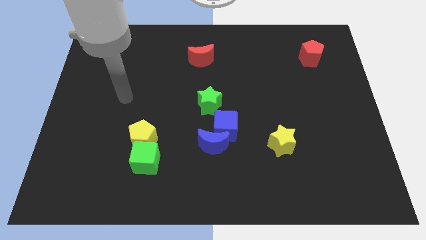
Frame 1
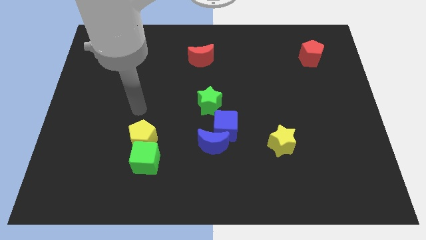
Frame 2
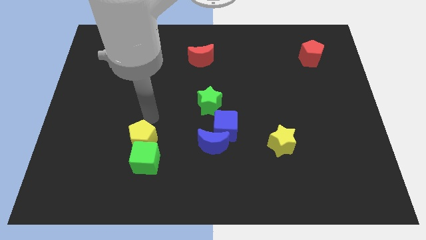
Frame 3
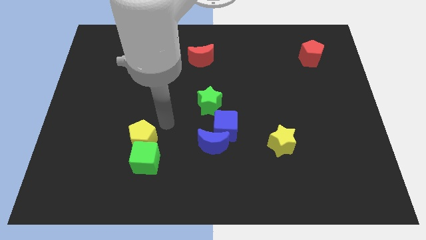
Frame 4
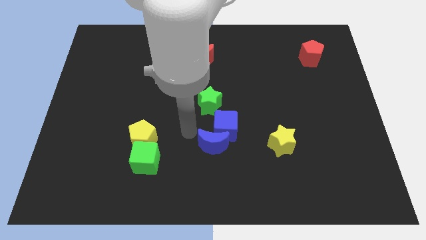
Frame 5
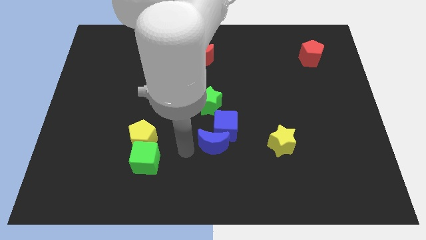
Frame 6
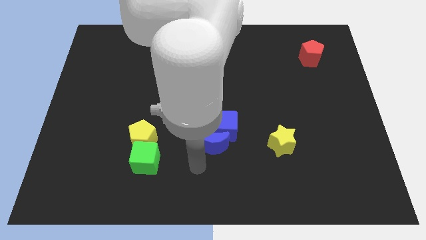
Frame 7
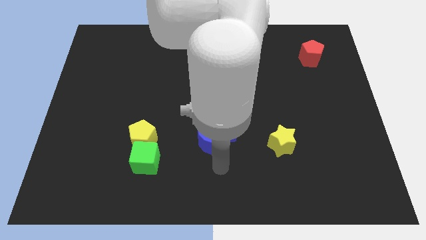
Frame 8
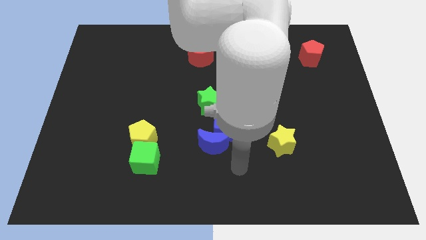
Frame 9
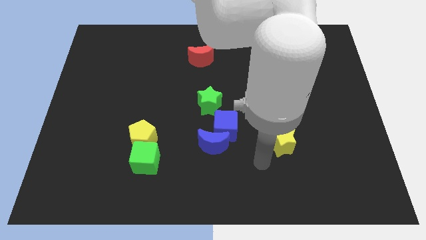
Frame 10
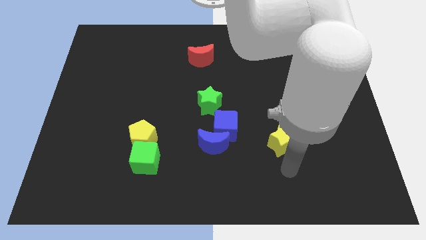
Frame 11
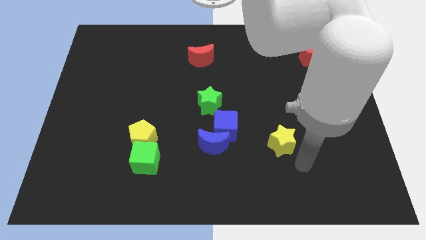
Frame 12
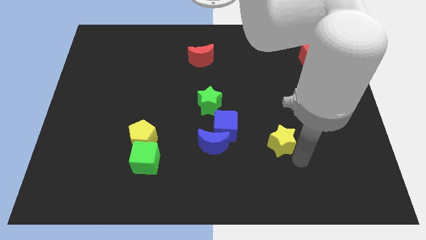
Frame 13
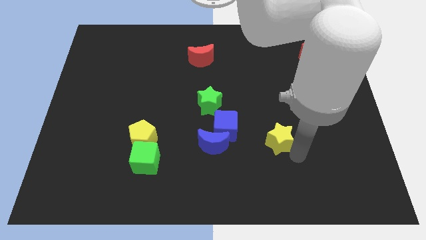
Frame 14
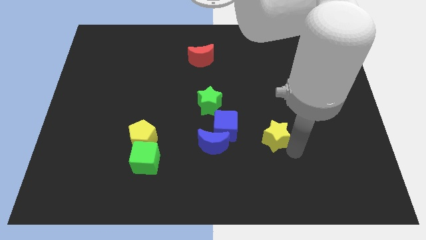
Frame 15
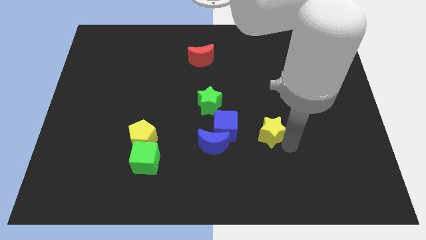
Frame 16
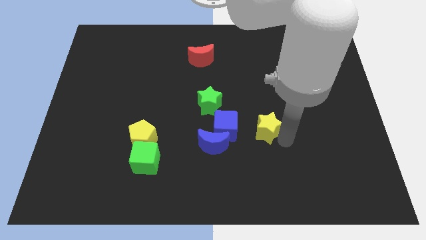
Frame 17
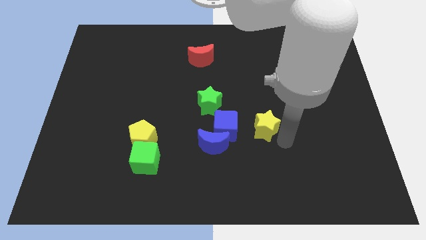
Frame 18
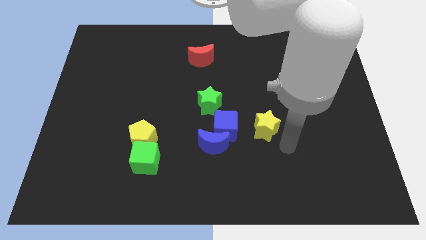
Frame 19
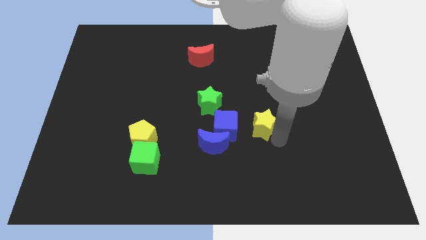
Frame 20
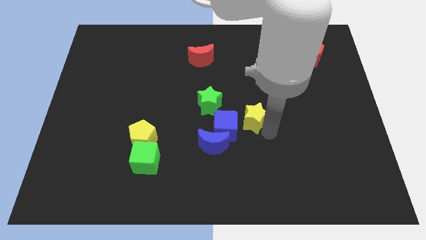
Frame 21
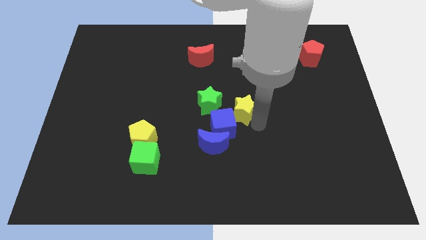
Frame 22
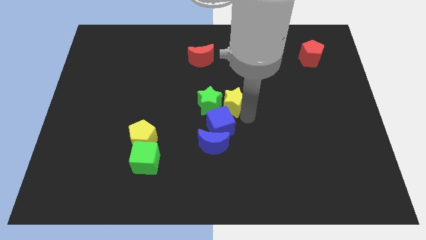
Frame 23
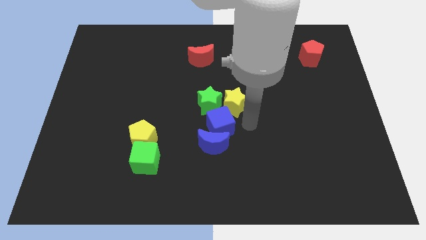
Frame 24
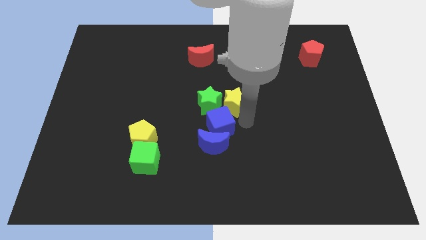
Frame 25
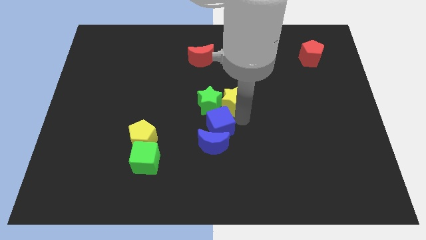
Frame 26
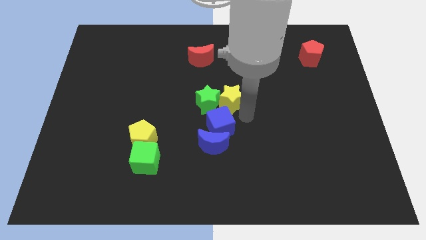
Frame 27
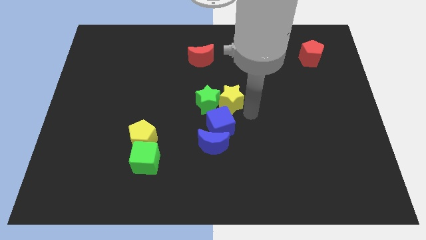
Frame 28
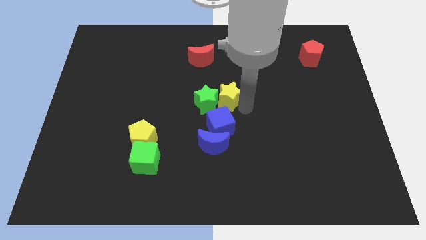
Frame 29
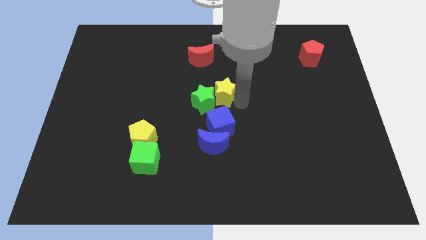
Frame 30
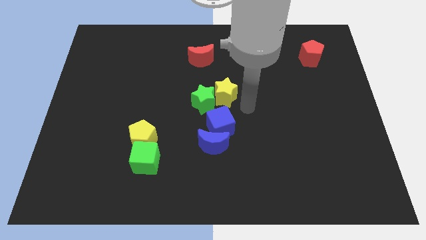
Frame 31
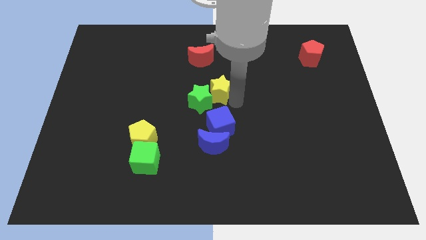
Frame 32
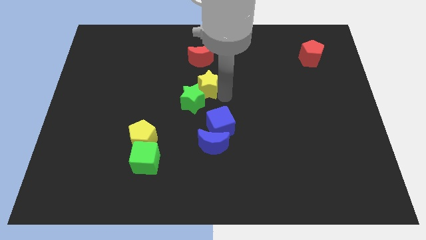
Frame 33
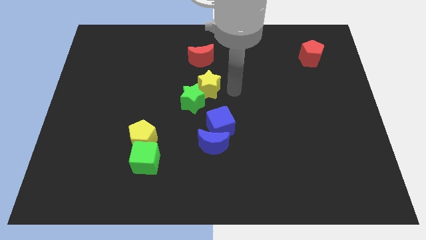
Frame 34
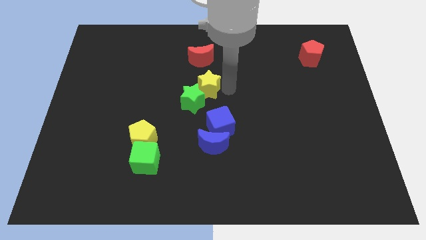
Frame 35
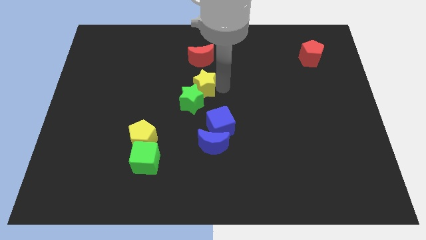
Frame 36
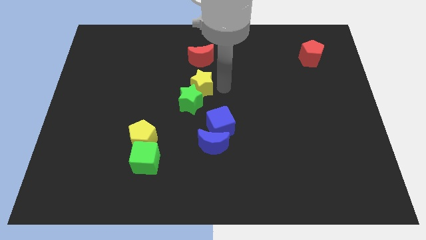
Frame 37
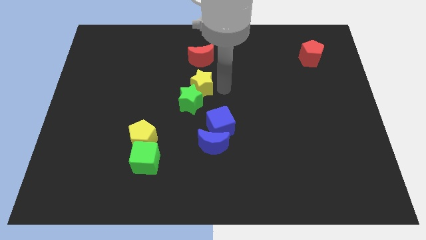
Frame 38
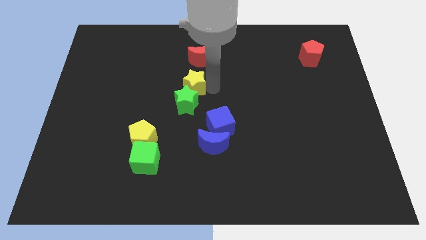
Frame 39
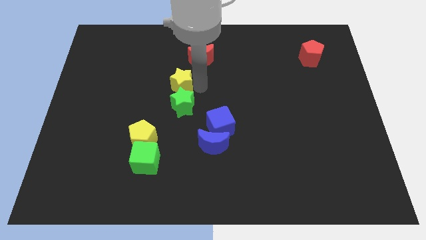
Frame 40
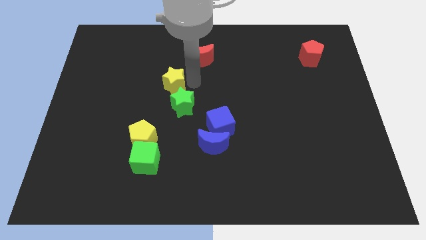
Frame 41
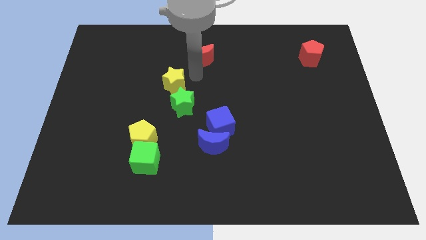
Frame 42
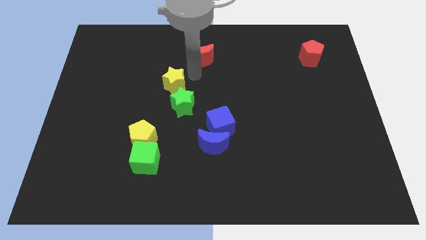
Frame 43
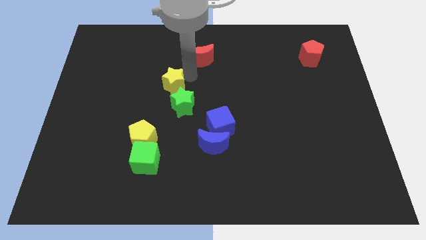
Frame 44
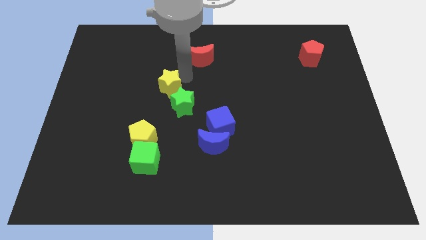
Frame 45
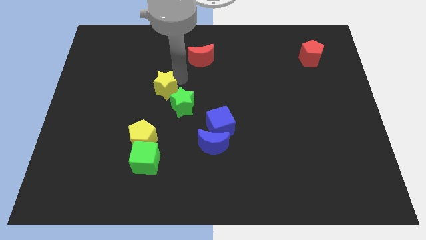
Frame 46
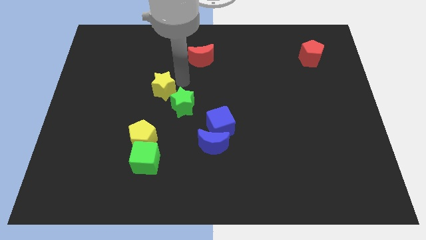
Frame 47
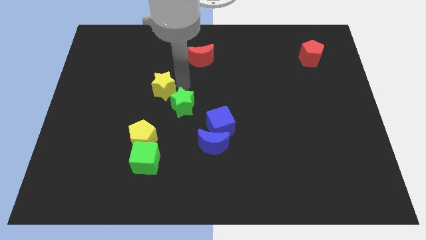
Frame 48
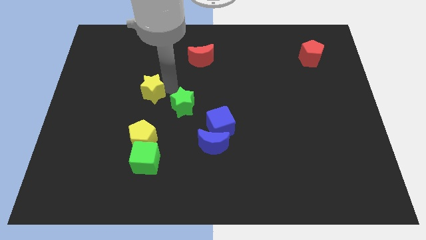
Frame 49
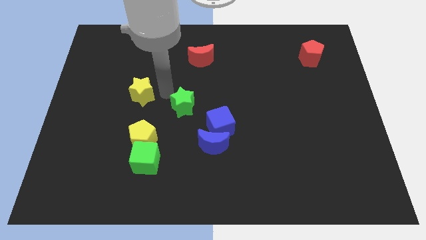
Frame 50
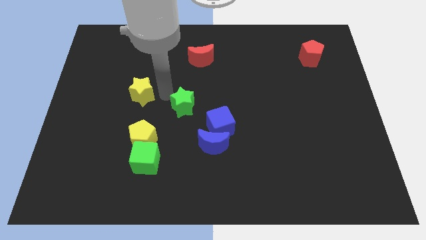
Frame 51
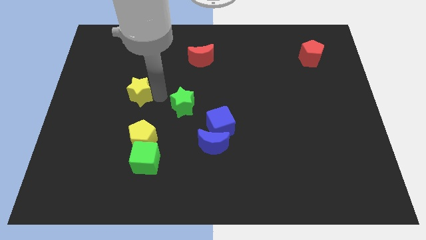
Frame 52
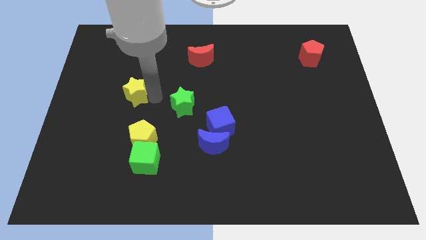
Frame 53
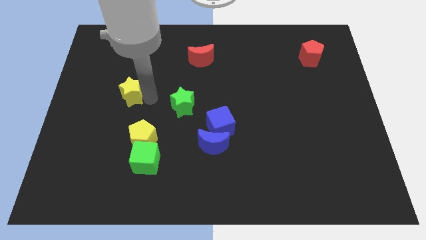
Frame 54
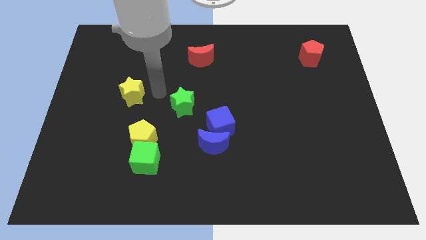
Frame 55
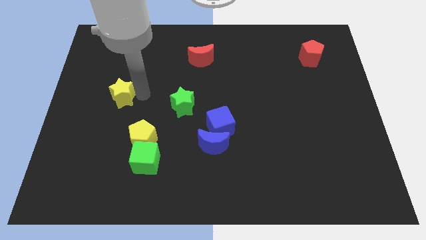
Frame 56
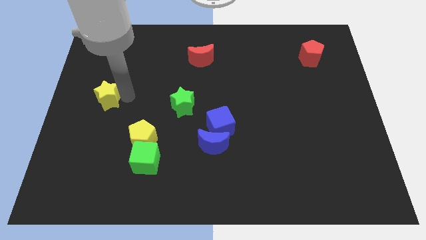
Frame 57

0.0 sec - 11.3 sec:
slide the yellow star to the center left
